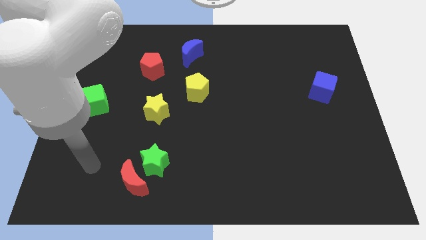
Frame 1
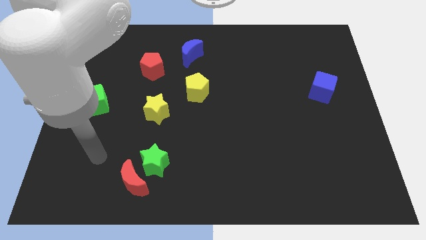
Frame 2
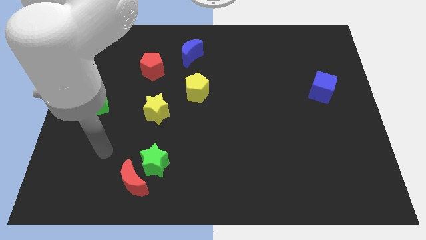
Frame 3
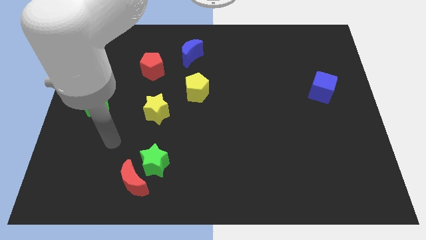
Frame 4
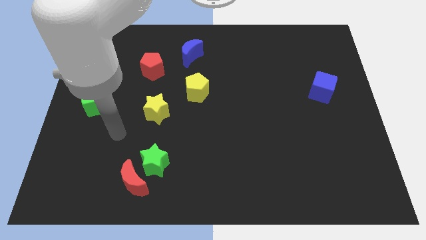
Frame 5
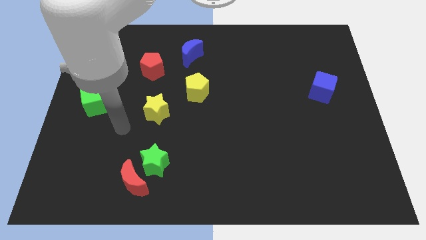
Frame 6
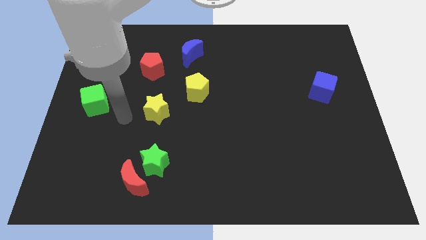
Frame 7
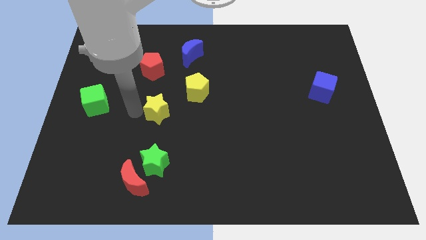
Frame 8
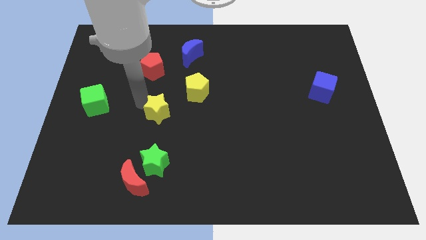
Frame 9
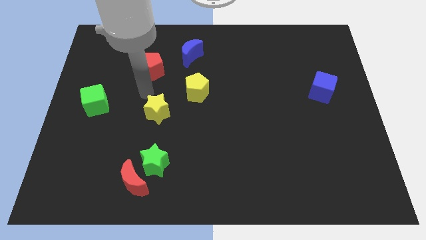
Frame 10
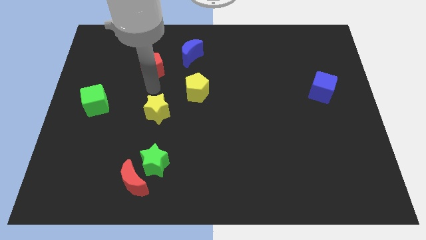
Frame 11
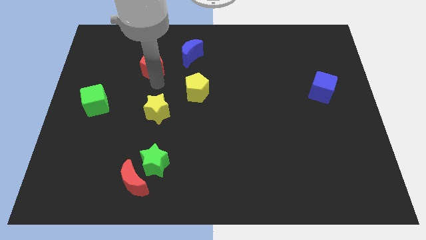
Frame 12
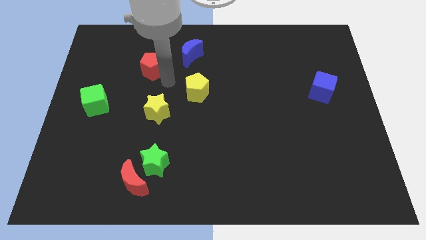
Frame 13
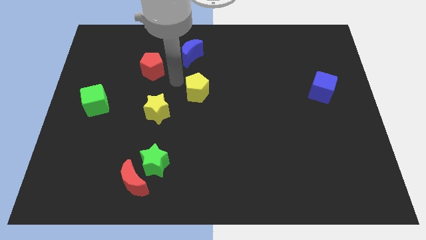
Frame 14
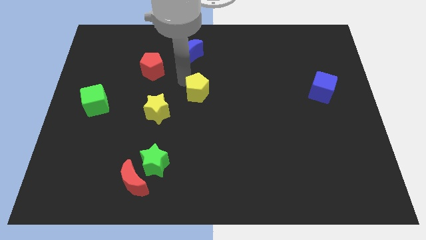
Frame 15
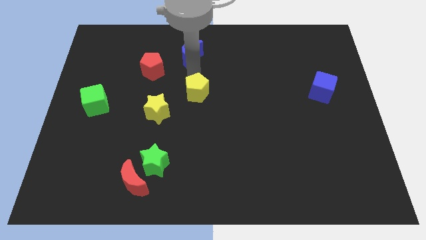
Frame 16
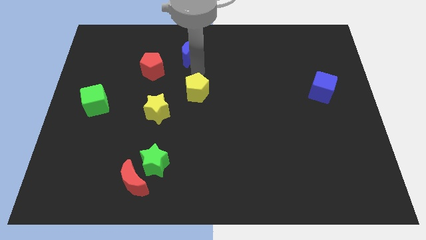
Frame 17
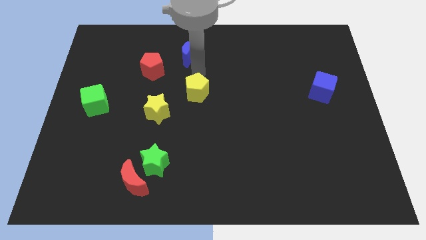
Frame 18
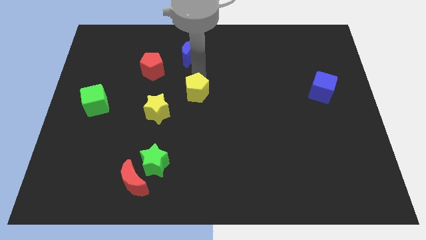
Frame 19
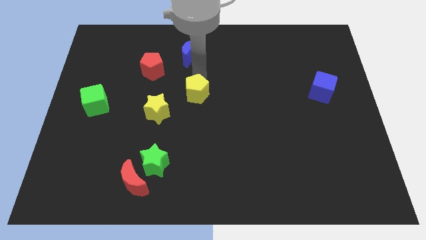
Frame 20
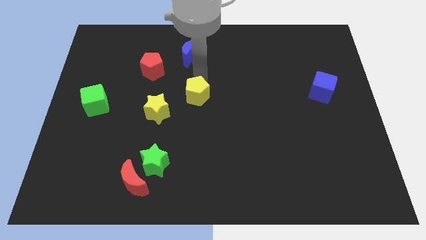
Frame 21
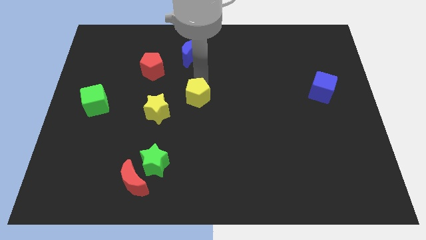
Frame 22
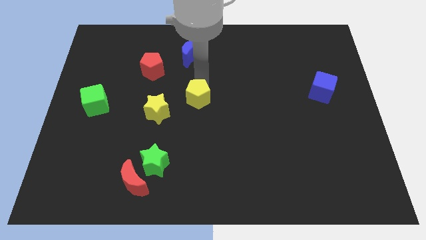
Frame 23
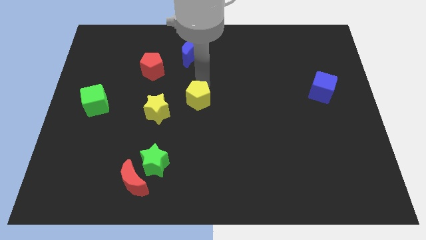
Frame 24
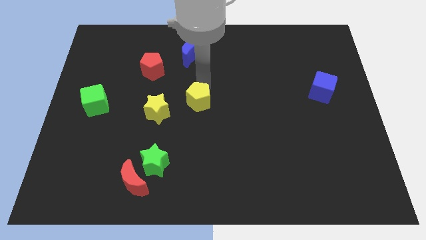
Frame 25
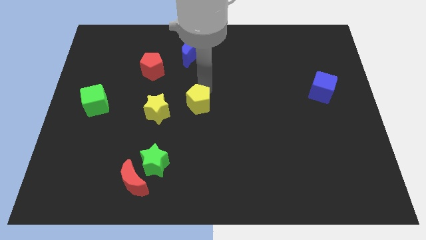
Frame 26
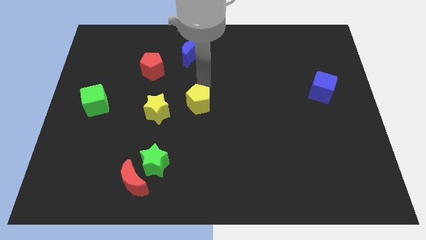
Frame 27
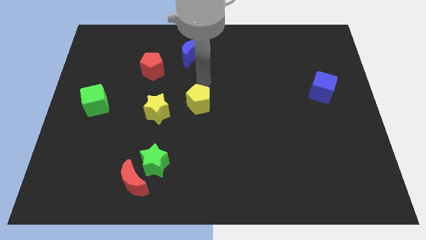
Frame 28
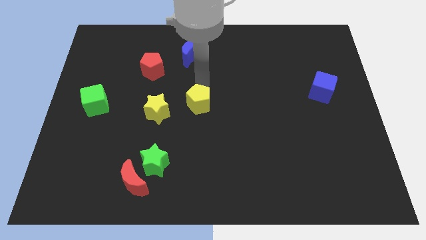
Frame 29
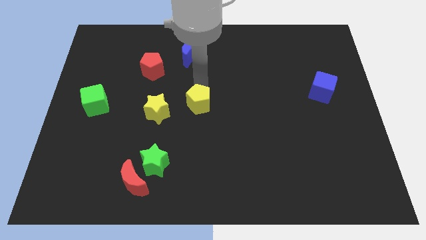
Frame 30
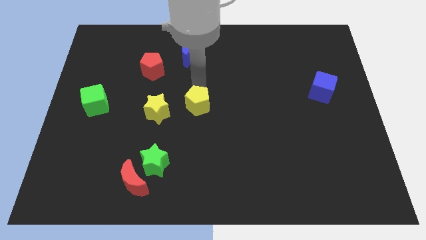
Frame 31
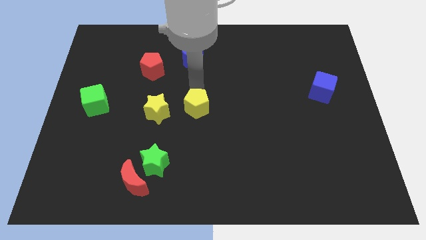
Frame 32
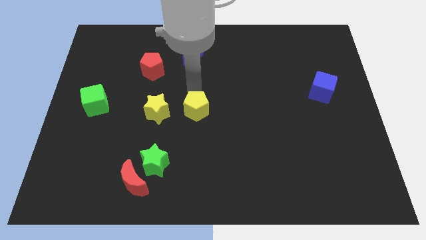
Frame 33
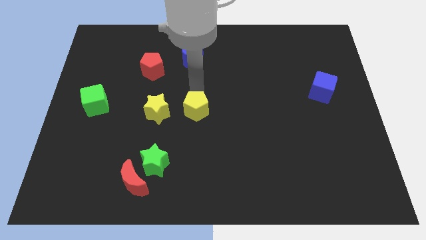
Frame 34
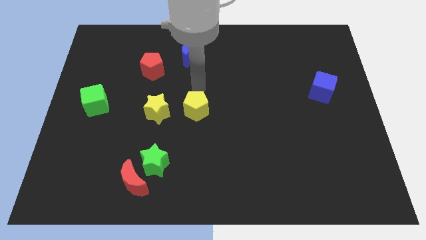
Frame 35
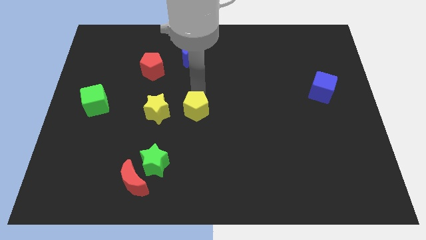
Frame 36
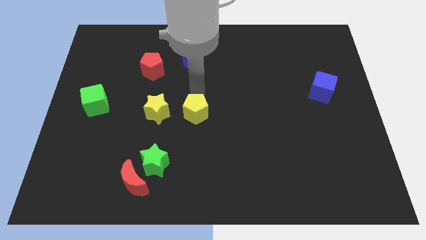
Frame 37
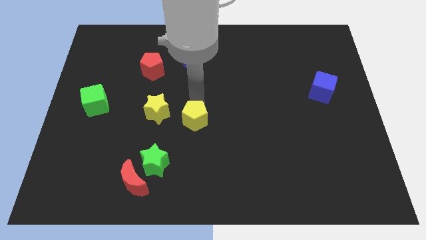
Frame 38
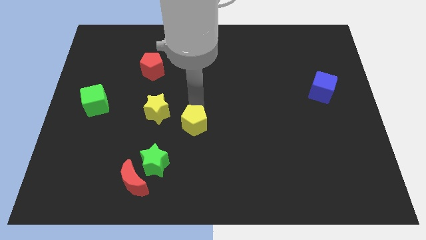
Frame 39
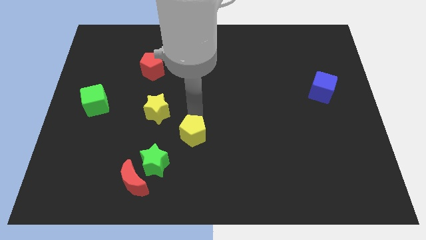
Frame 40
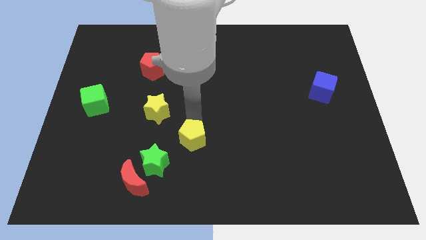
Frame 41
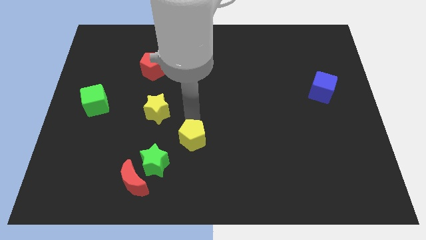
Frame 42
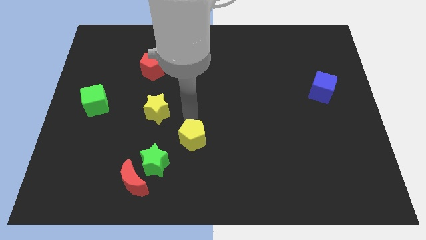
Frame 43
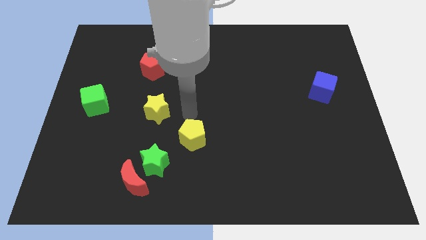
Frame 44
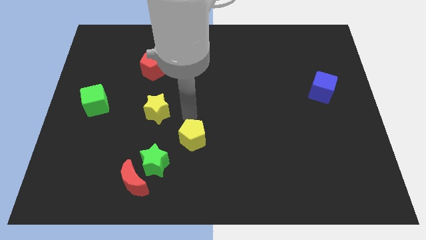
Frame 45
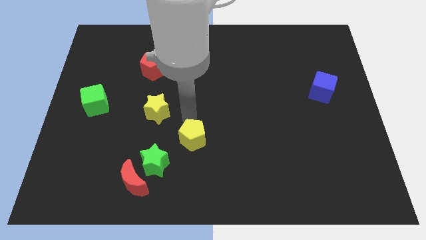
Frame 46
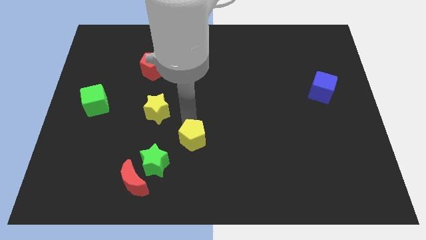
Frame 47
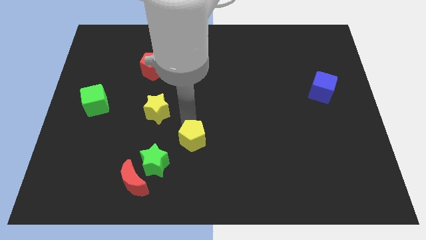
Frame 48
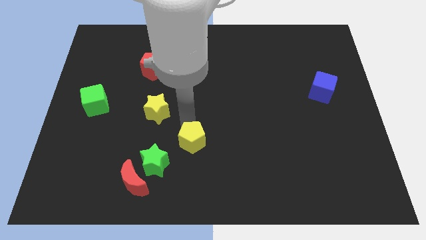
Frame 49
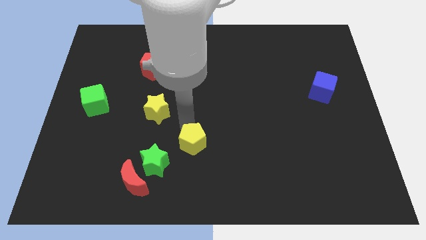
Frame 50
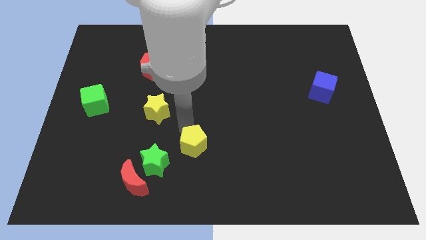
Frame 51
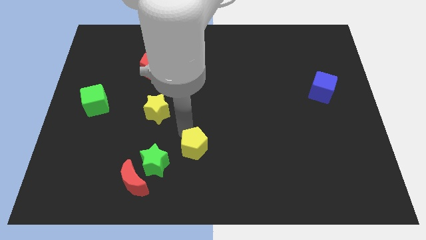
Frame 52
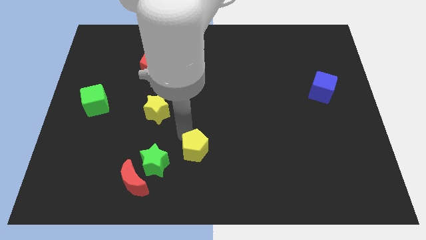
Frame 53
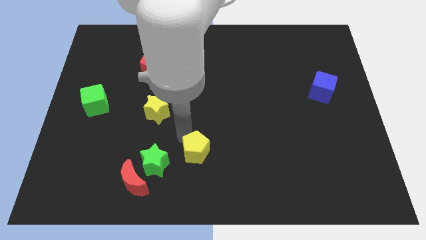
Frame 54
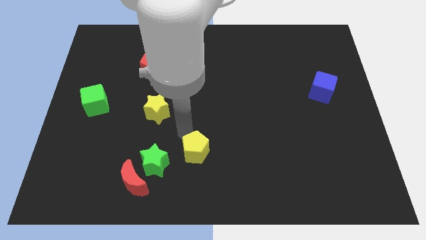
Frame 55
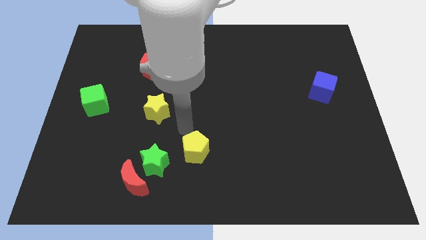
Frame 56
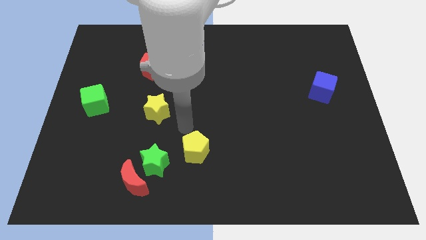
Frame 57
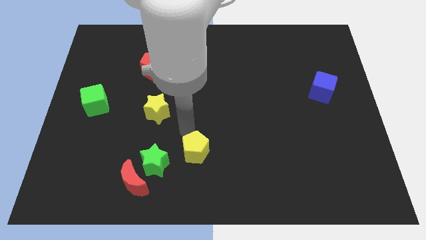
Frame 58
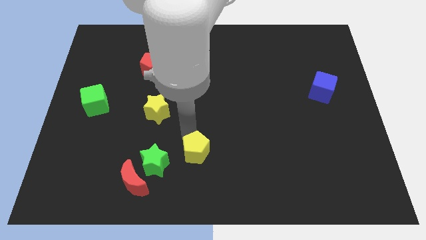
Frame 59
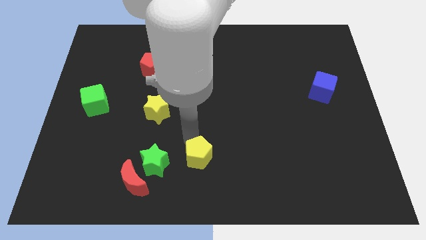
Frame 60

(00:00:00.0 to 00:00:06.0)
push the yellow pentagon to the bottom side
